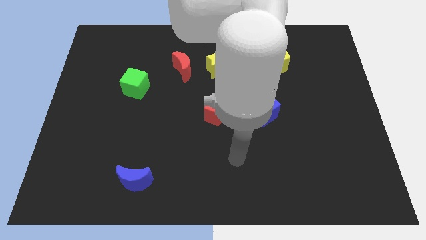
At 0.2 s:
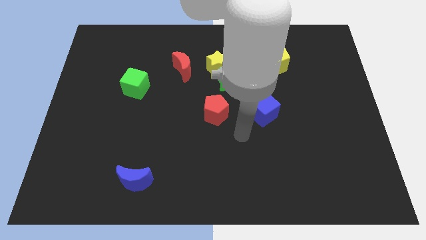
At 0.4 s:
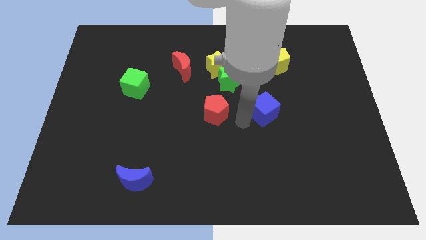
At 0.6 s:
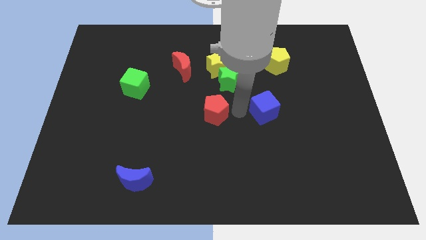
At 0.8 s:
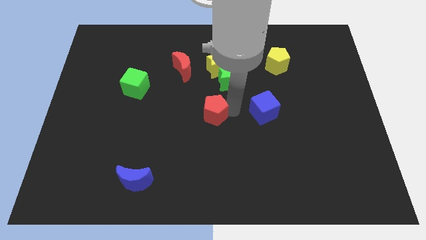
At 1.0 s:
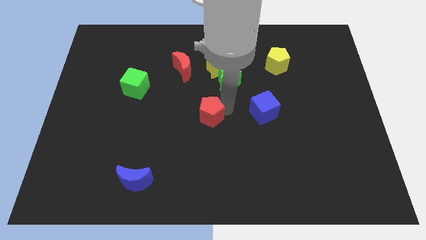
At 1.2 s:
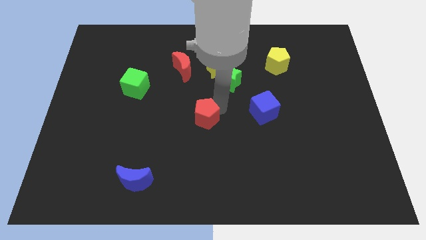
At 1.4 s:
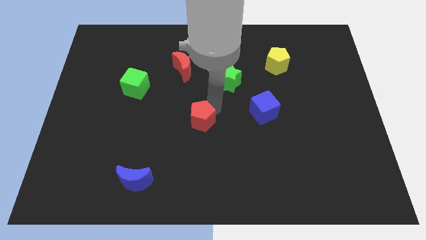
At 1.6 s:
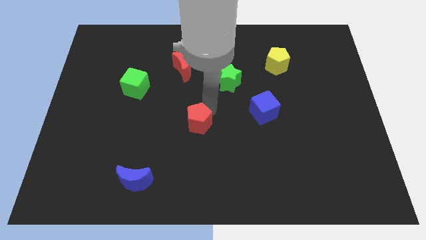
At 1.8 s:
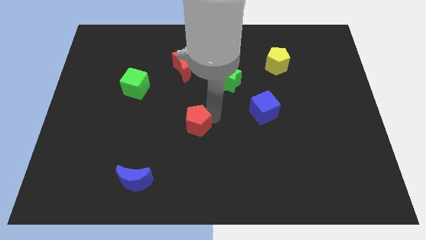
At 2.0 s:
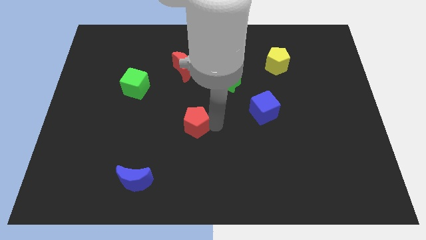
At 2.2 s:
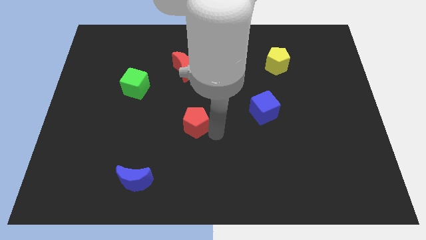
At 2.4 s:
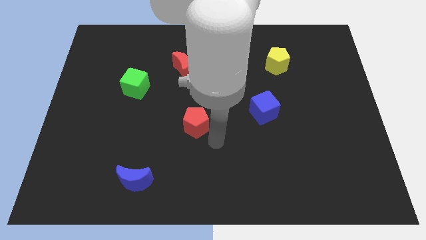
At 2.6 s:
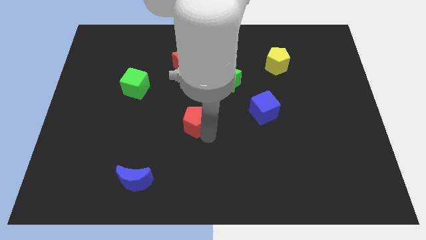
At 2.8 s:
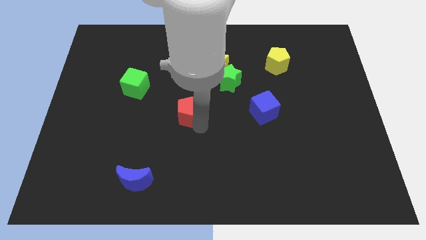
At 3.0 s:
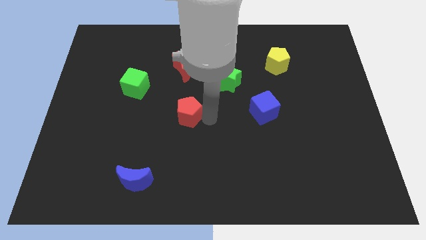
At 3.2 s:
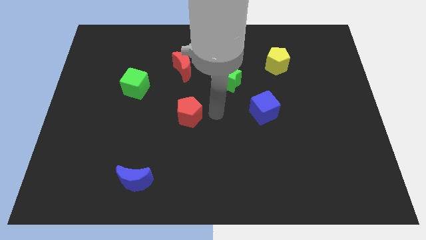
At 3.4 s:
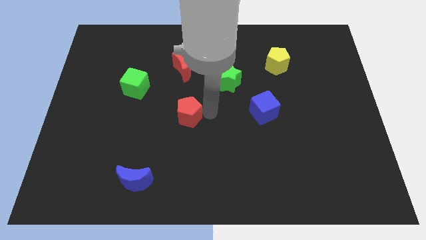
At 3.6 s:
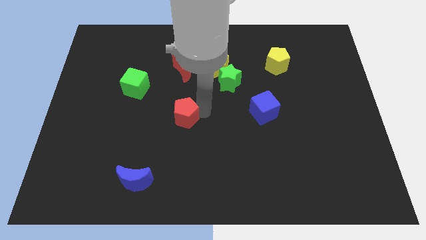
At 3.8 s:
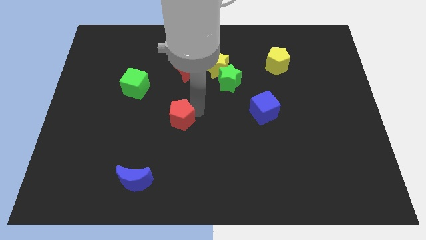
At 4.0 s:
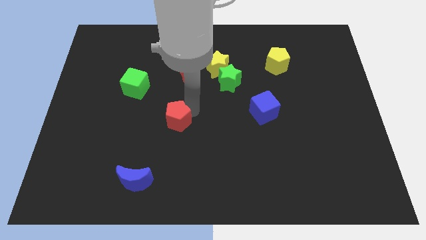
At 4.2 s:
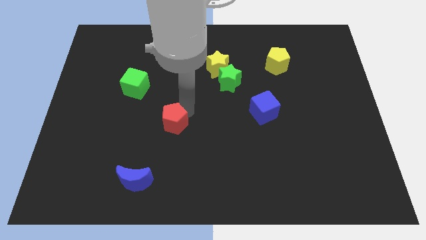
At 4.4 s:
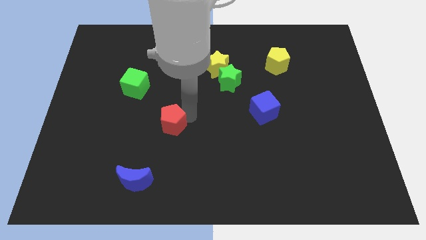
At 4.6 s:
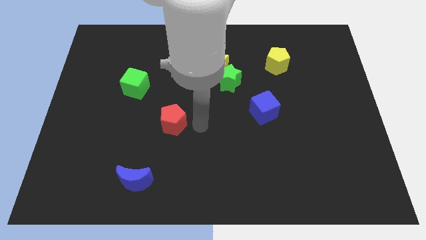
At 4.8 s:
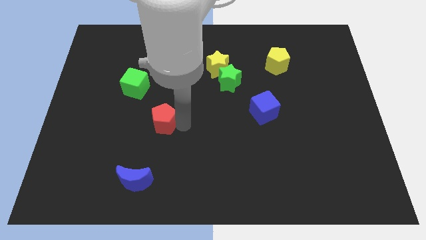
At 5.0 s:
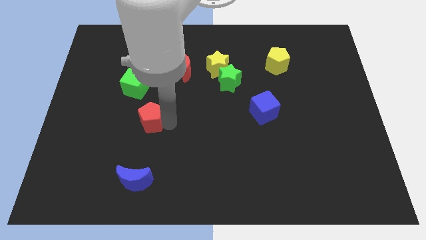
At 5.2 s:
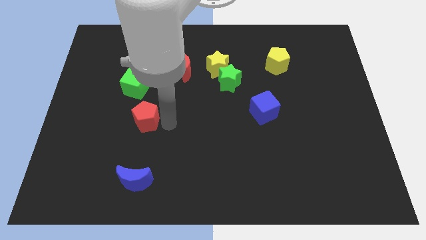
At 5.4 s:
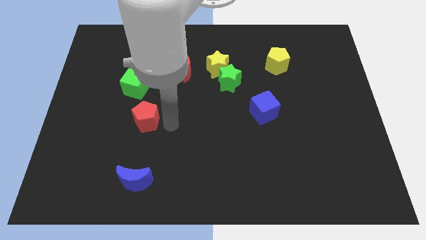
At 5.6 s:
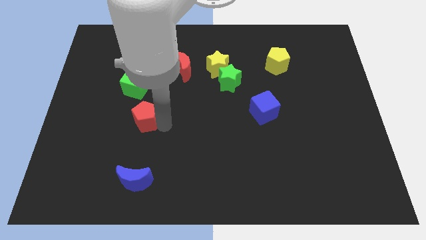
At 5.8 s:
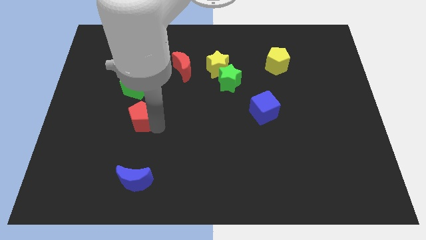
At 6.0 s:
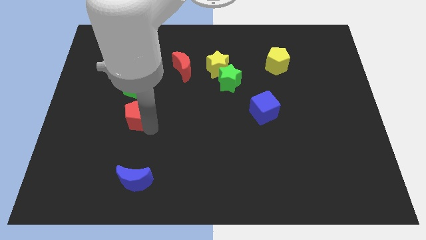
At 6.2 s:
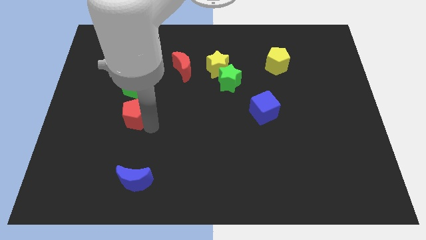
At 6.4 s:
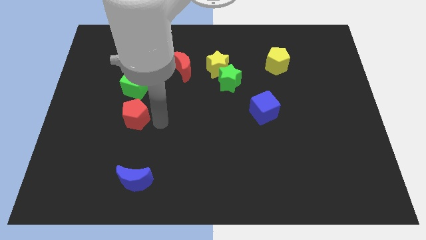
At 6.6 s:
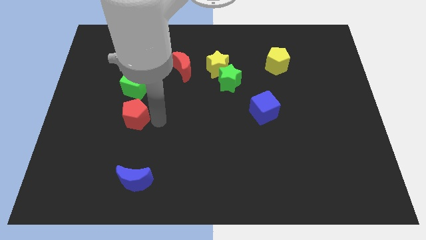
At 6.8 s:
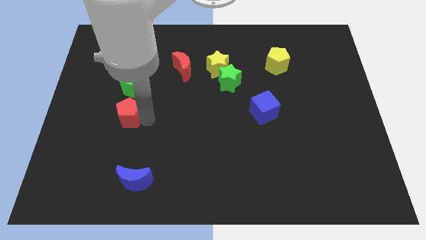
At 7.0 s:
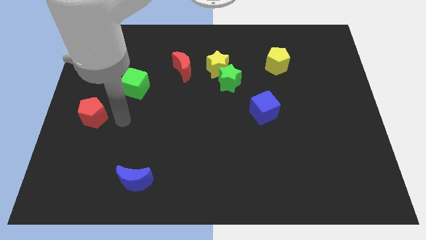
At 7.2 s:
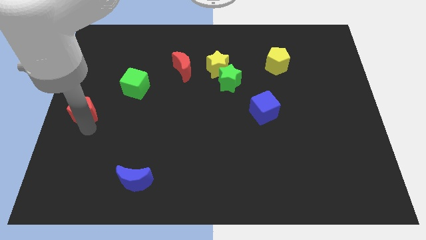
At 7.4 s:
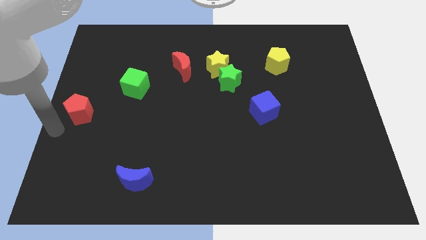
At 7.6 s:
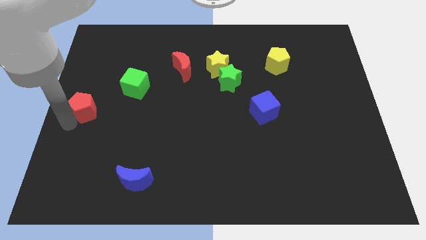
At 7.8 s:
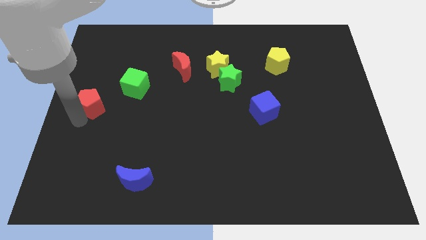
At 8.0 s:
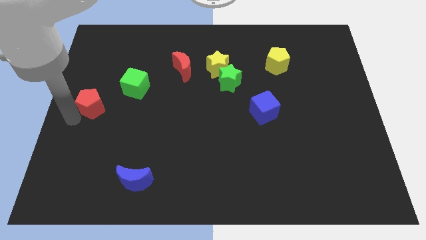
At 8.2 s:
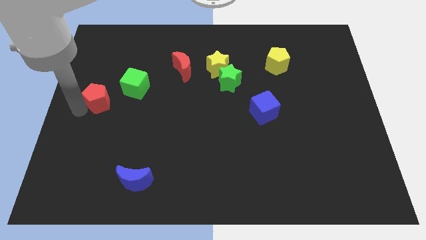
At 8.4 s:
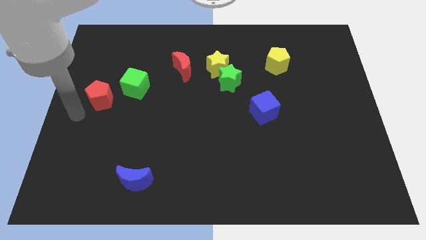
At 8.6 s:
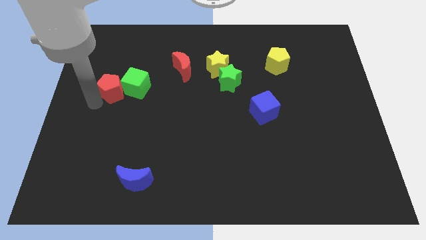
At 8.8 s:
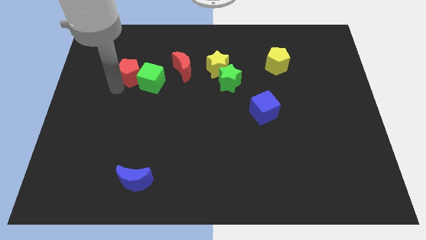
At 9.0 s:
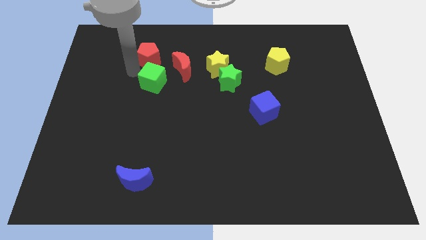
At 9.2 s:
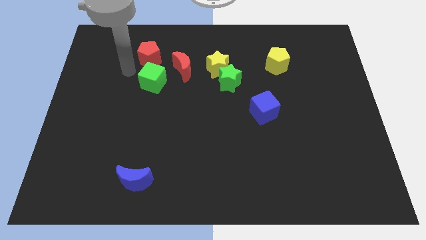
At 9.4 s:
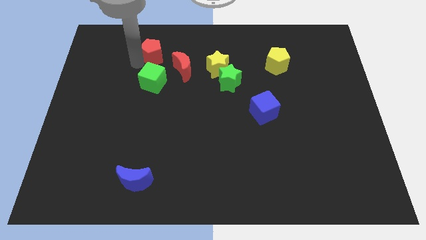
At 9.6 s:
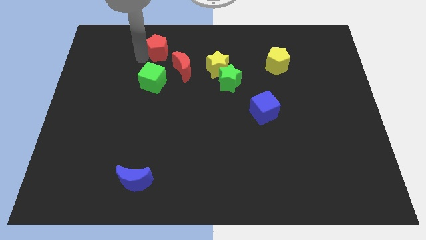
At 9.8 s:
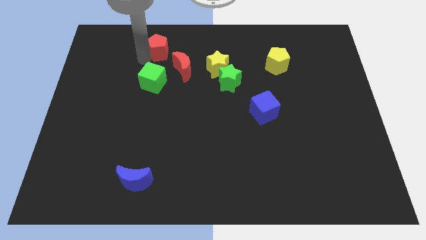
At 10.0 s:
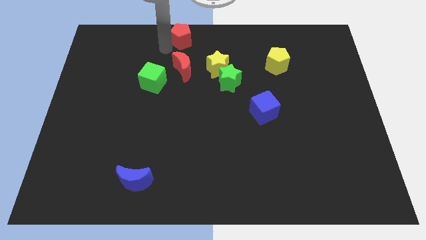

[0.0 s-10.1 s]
move the red pentagon to the top

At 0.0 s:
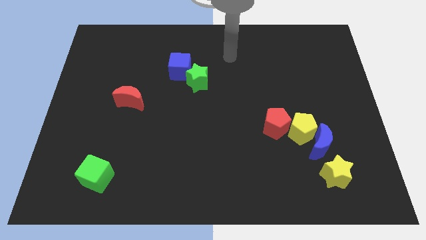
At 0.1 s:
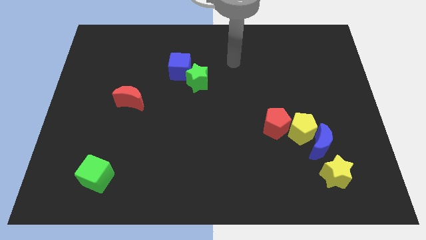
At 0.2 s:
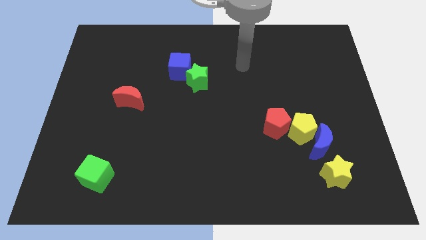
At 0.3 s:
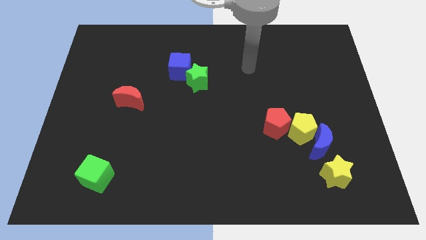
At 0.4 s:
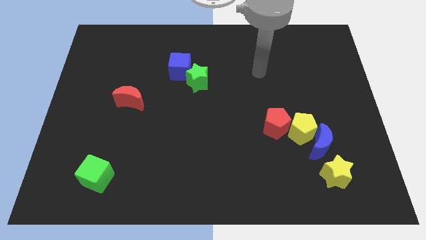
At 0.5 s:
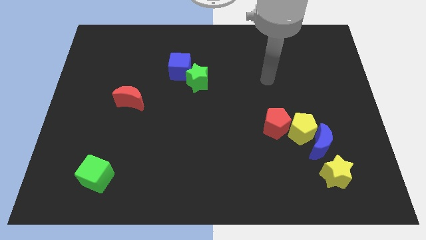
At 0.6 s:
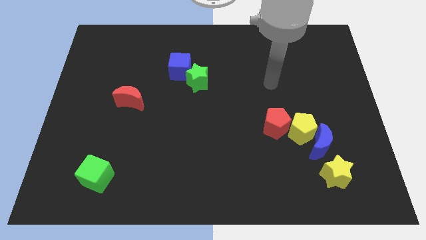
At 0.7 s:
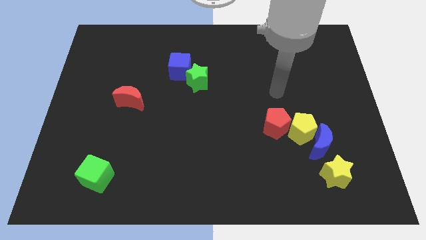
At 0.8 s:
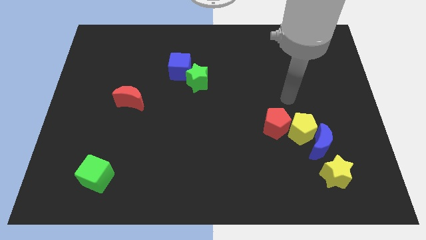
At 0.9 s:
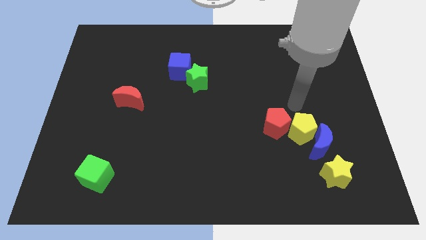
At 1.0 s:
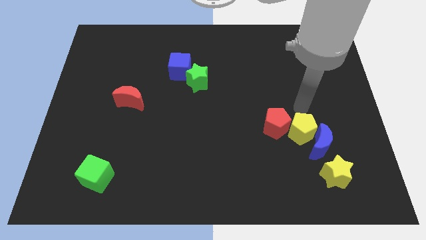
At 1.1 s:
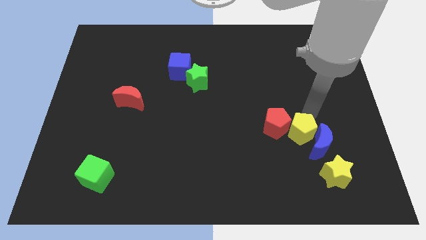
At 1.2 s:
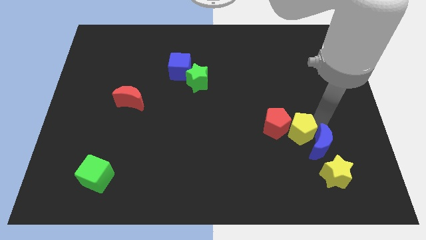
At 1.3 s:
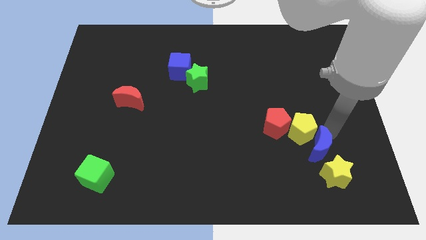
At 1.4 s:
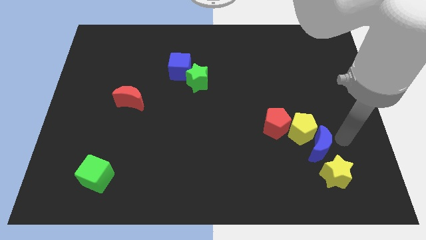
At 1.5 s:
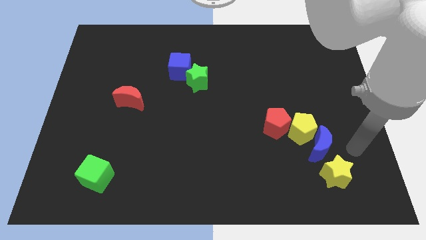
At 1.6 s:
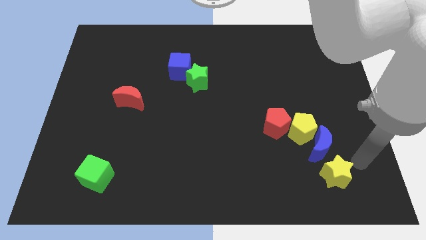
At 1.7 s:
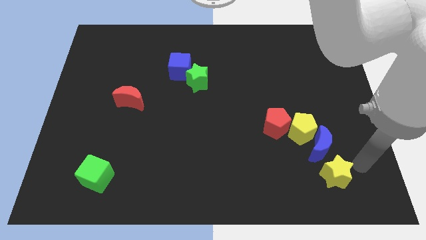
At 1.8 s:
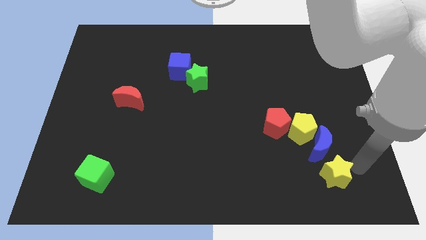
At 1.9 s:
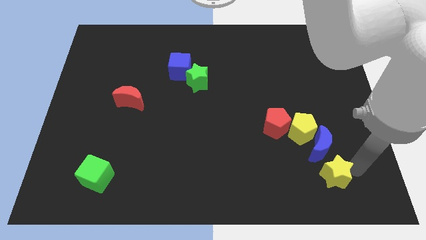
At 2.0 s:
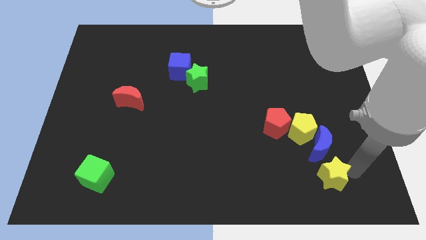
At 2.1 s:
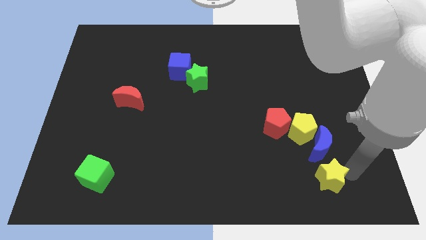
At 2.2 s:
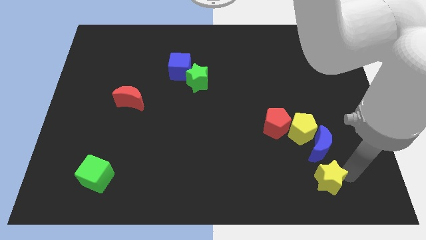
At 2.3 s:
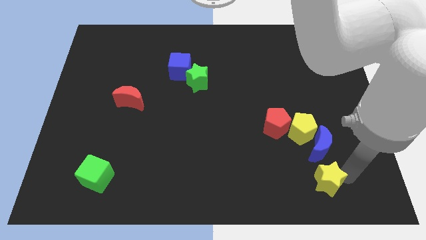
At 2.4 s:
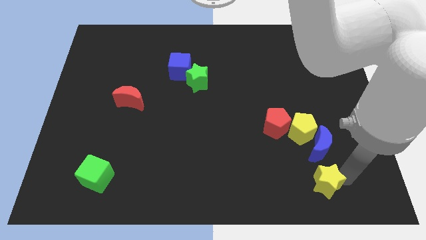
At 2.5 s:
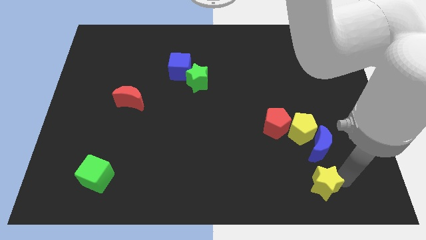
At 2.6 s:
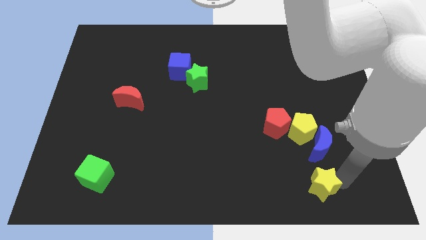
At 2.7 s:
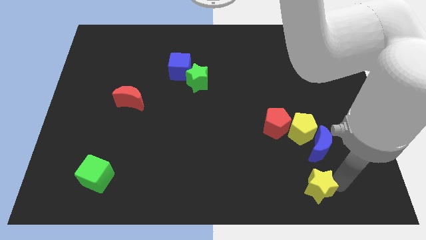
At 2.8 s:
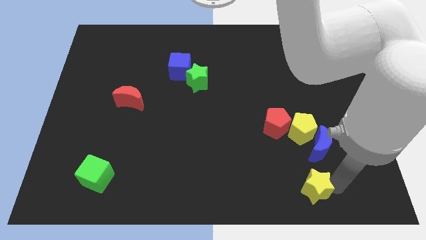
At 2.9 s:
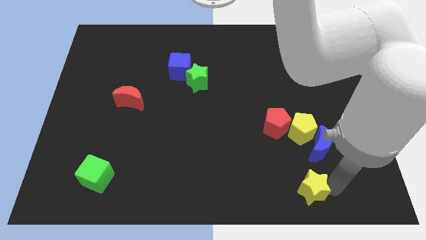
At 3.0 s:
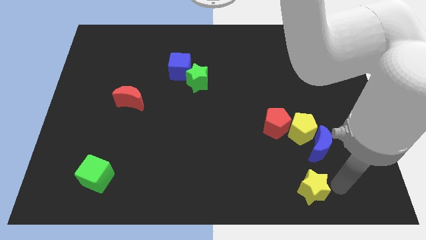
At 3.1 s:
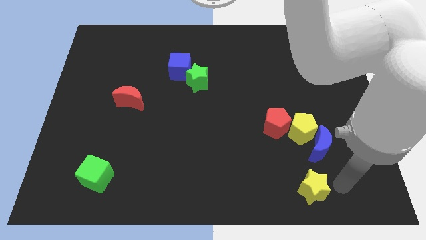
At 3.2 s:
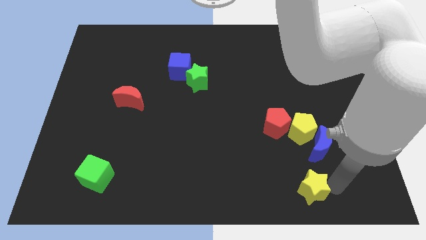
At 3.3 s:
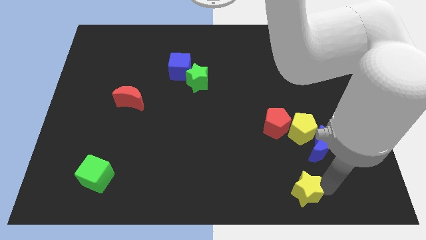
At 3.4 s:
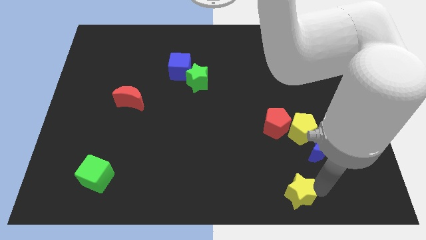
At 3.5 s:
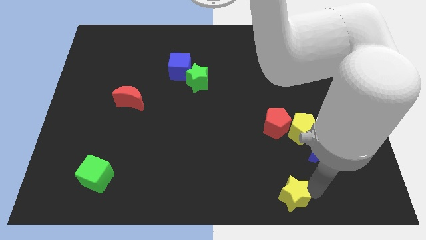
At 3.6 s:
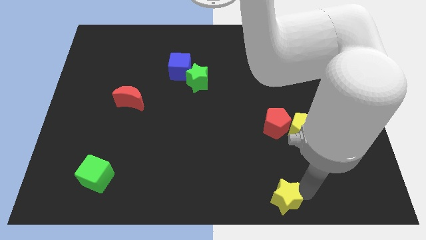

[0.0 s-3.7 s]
move the yellow star to the bottom side
